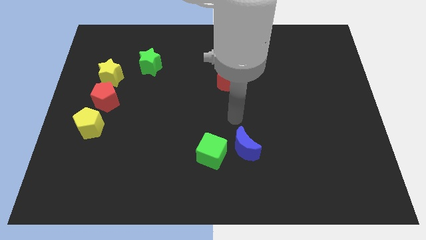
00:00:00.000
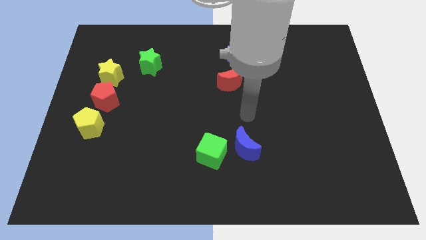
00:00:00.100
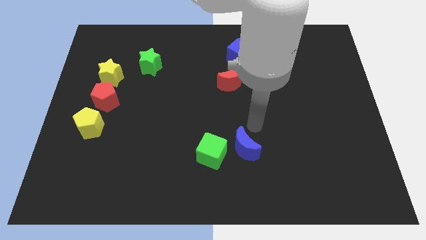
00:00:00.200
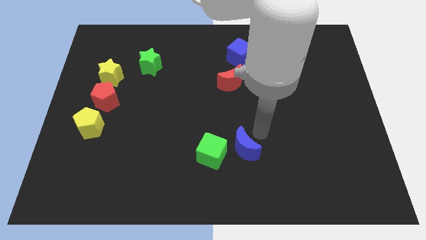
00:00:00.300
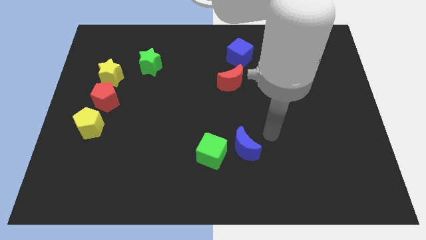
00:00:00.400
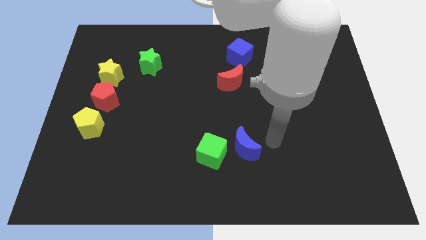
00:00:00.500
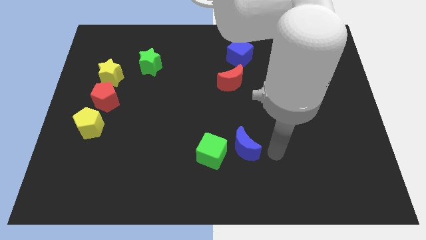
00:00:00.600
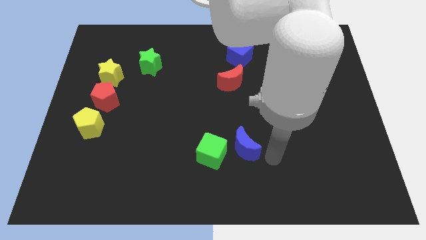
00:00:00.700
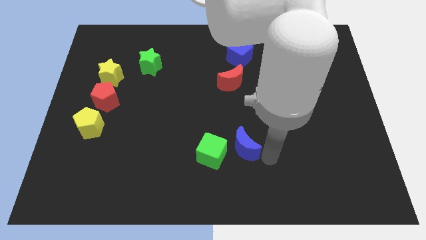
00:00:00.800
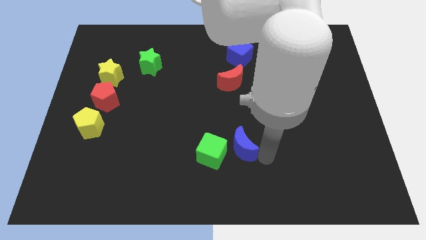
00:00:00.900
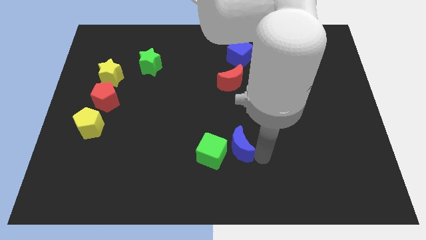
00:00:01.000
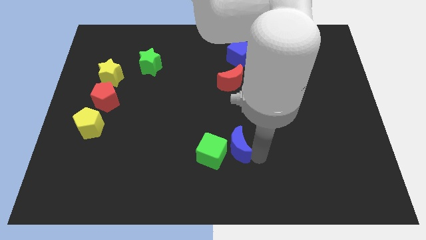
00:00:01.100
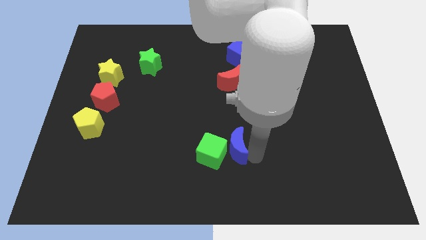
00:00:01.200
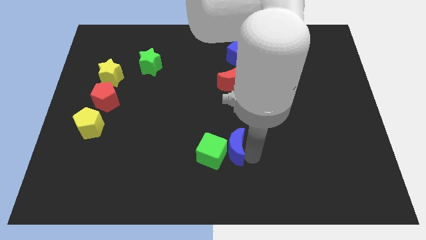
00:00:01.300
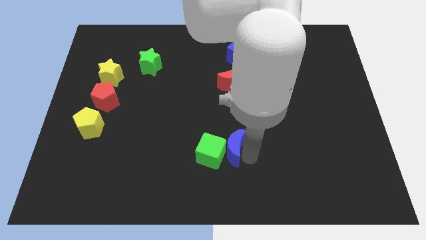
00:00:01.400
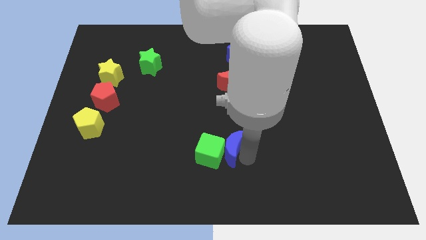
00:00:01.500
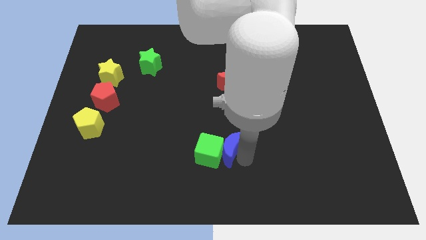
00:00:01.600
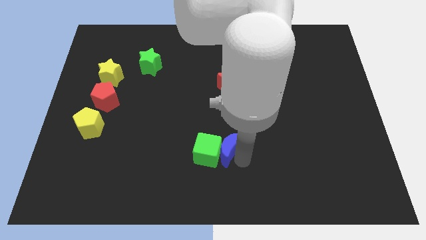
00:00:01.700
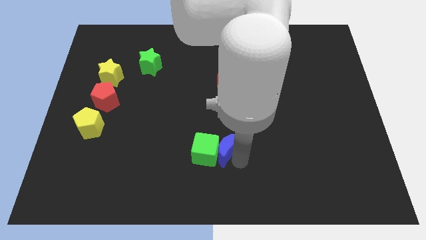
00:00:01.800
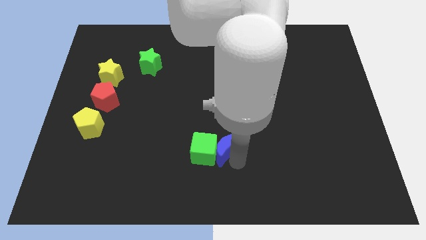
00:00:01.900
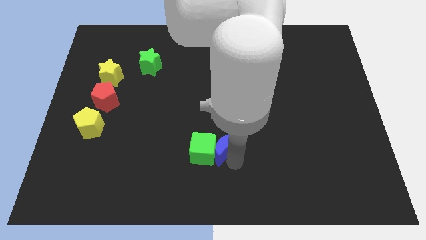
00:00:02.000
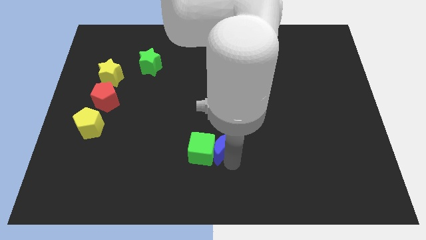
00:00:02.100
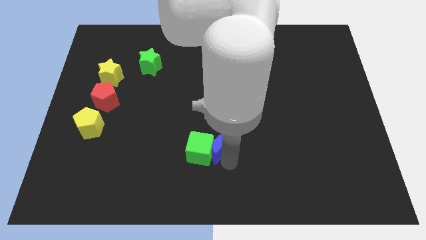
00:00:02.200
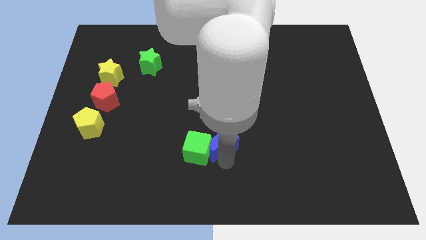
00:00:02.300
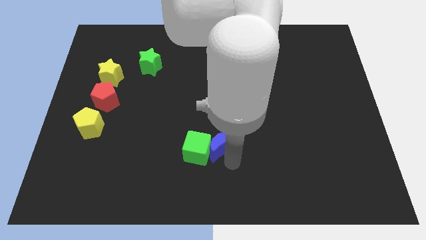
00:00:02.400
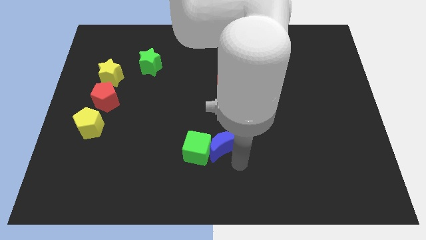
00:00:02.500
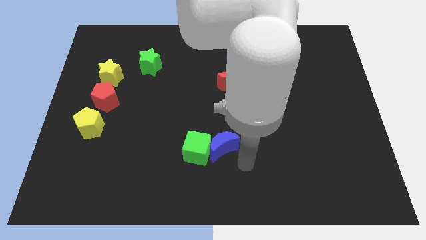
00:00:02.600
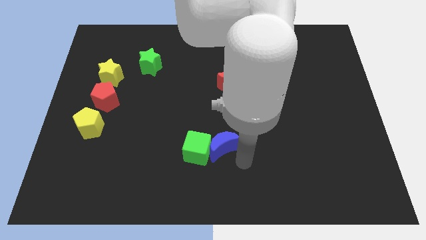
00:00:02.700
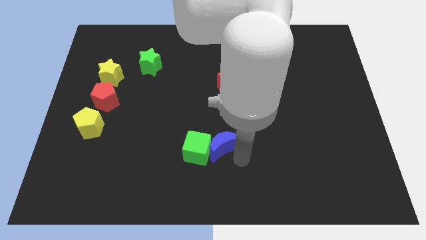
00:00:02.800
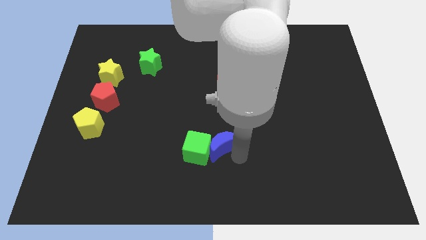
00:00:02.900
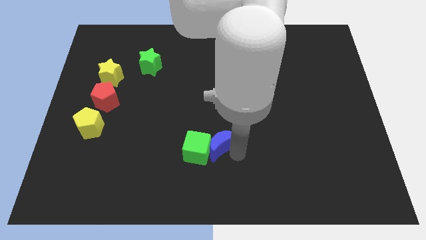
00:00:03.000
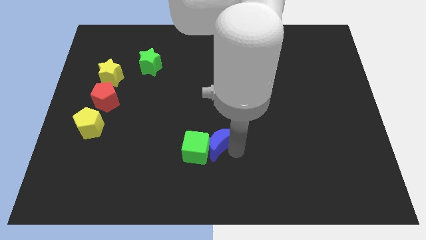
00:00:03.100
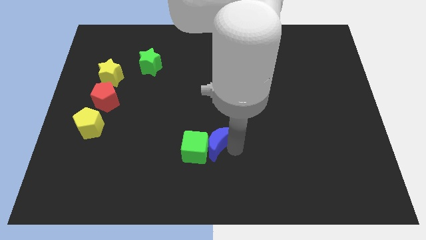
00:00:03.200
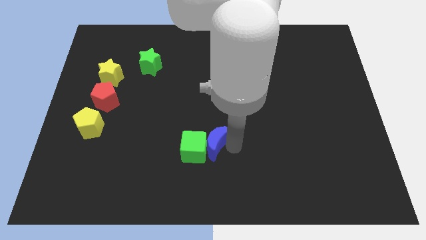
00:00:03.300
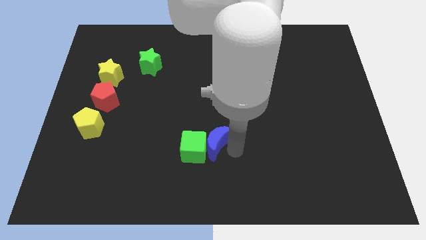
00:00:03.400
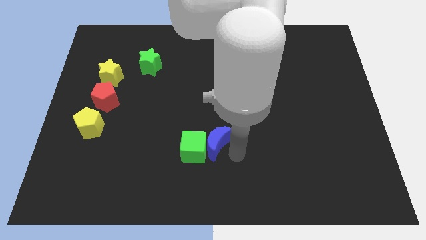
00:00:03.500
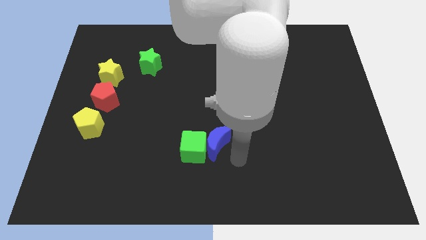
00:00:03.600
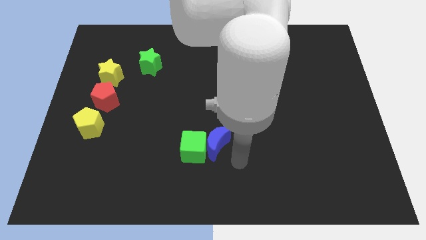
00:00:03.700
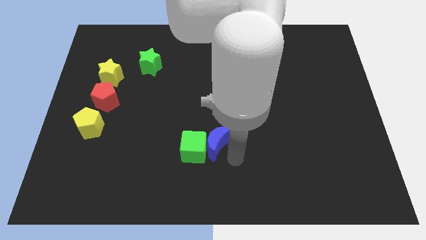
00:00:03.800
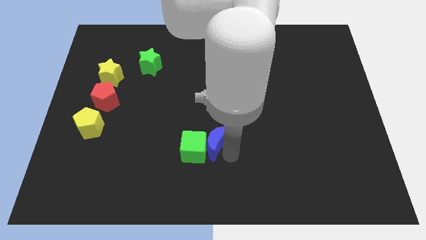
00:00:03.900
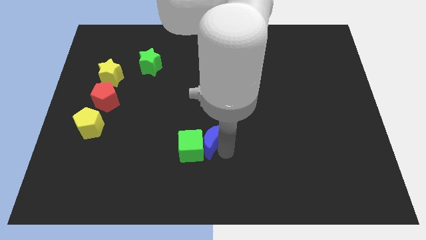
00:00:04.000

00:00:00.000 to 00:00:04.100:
slightly slide the blue moon left

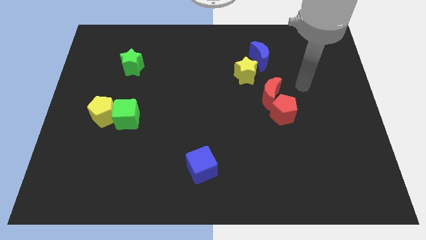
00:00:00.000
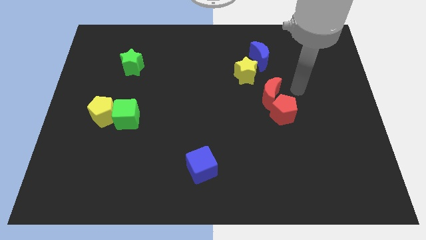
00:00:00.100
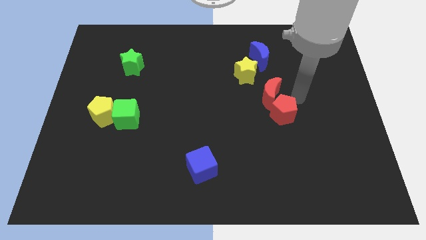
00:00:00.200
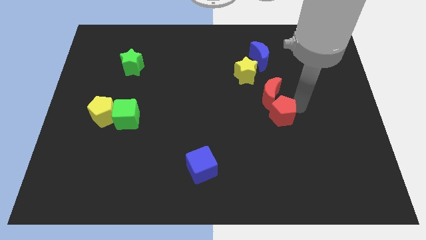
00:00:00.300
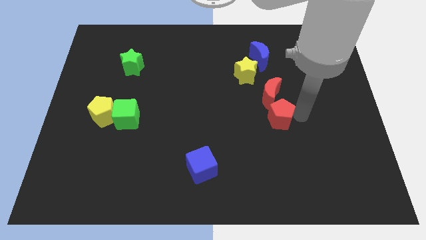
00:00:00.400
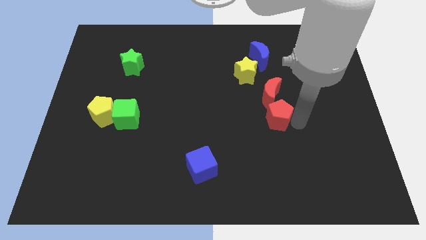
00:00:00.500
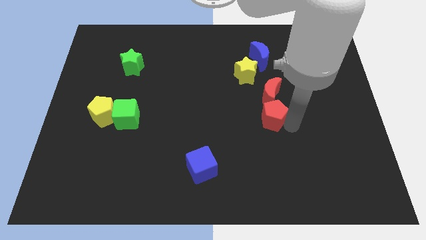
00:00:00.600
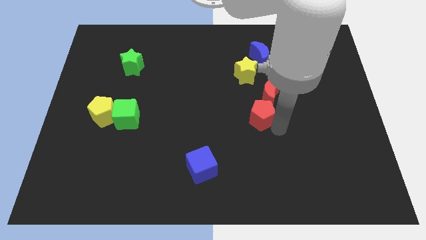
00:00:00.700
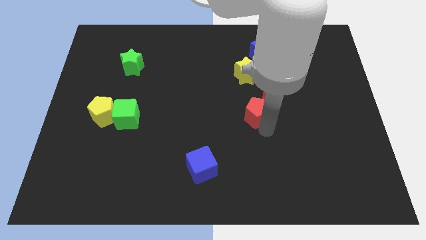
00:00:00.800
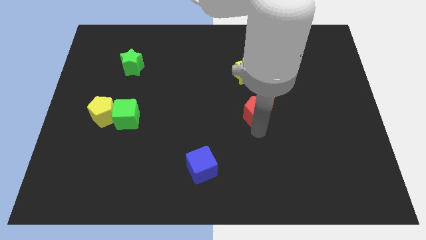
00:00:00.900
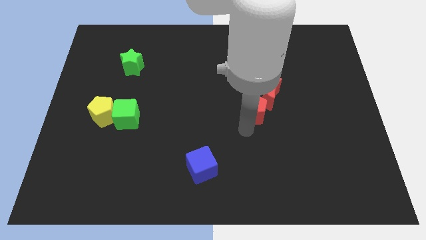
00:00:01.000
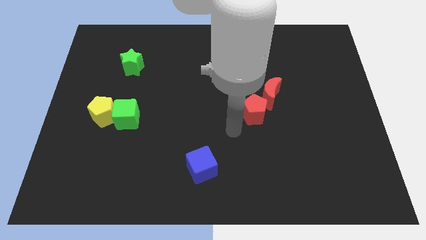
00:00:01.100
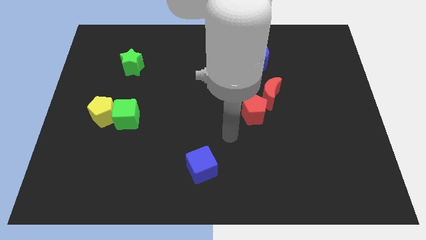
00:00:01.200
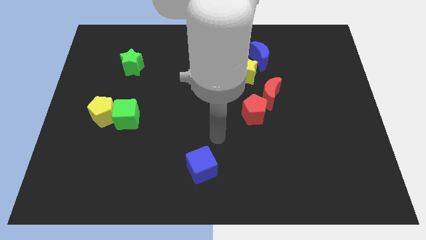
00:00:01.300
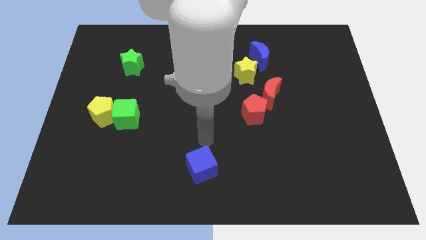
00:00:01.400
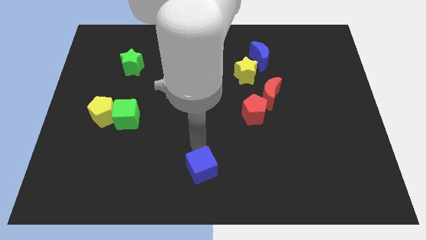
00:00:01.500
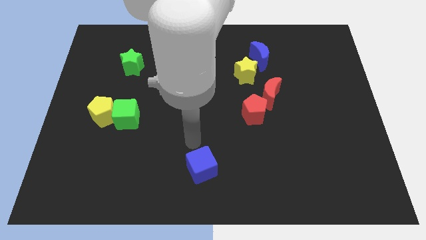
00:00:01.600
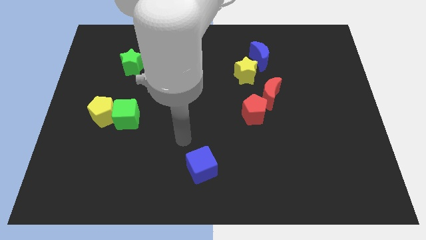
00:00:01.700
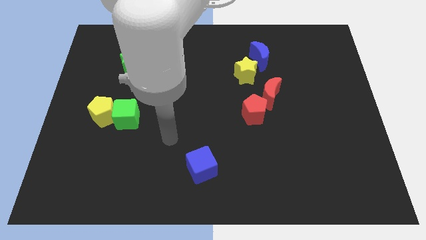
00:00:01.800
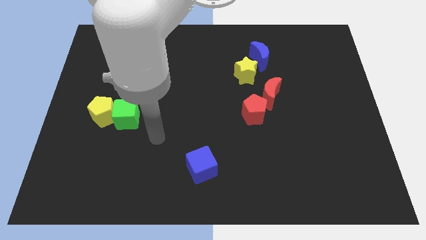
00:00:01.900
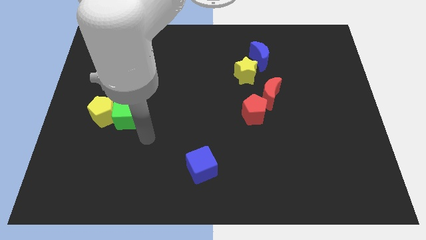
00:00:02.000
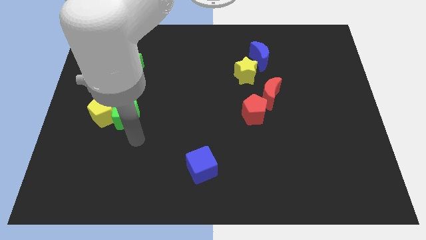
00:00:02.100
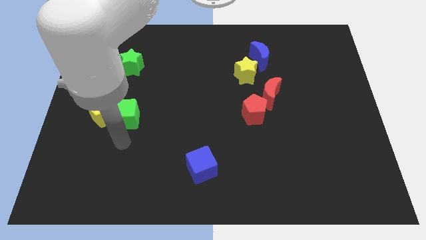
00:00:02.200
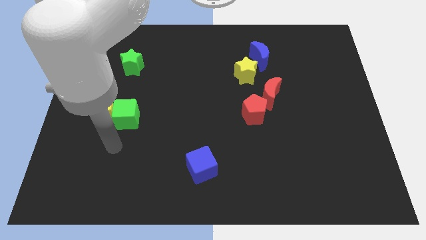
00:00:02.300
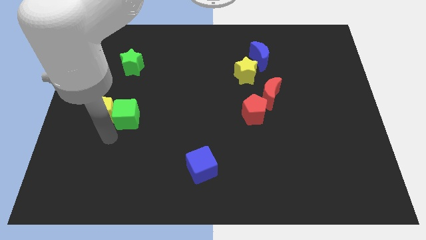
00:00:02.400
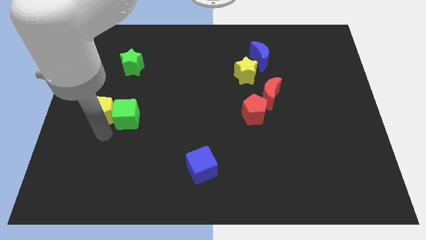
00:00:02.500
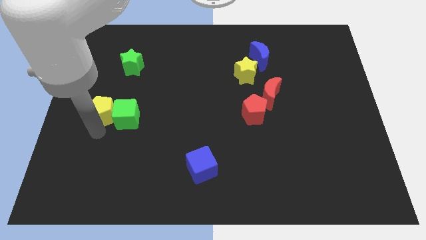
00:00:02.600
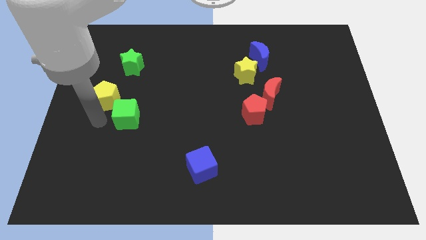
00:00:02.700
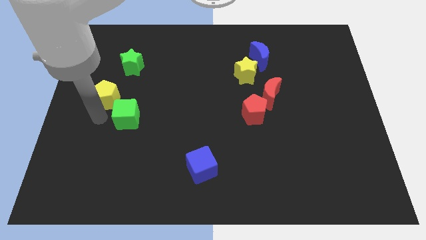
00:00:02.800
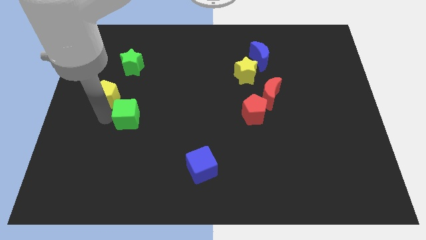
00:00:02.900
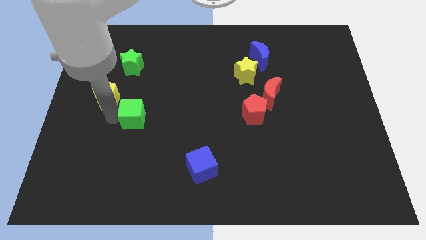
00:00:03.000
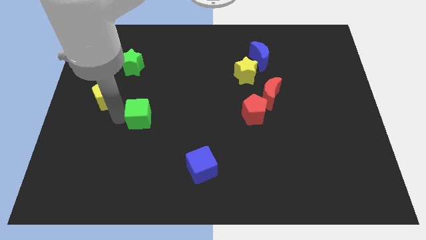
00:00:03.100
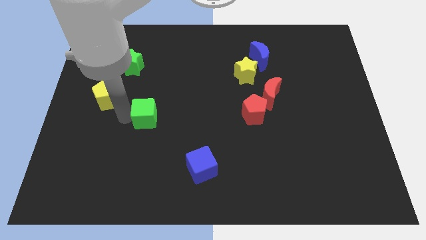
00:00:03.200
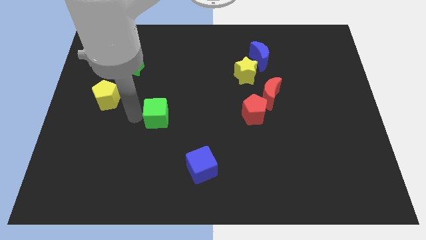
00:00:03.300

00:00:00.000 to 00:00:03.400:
slide the green cube a little right

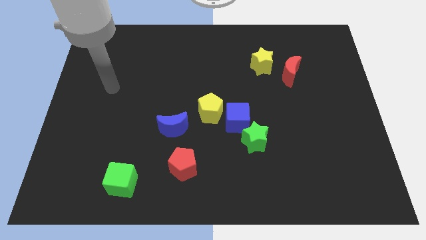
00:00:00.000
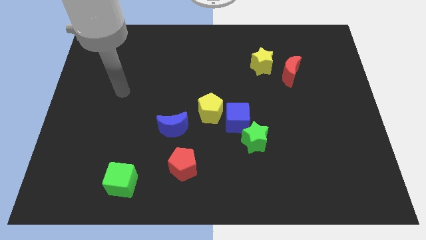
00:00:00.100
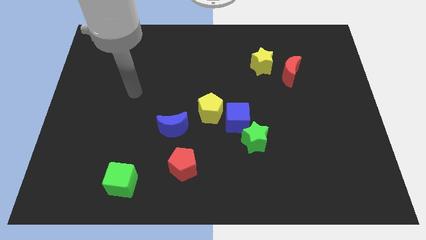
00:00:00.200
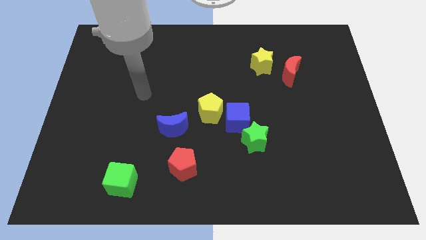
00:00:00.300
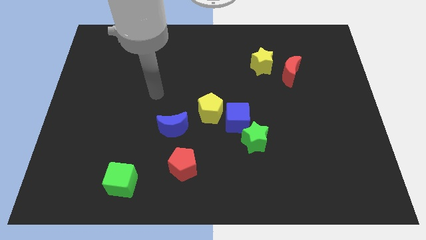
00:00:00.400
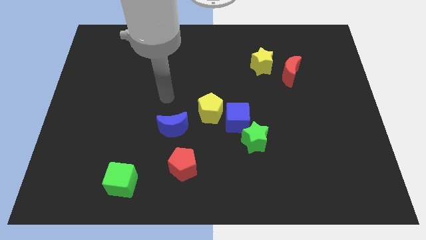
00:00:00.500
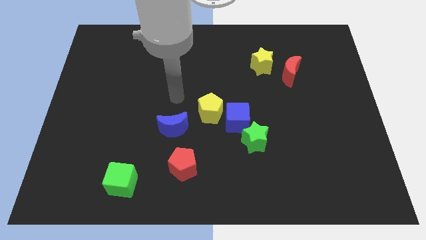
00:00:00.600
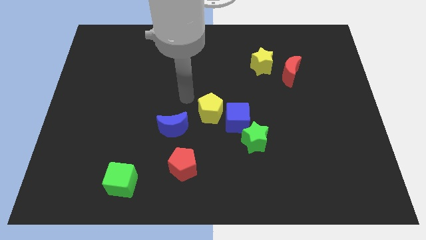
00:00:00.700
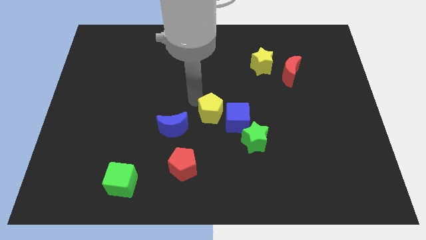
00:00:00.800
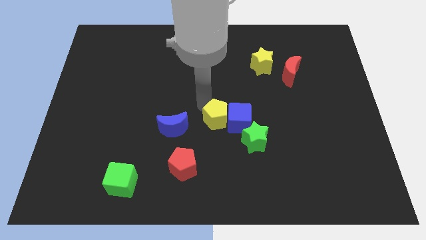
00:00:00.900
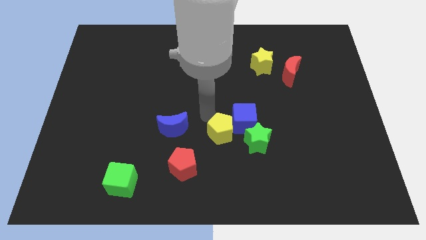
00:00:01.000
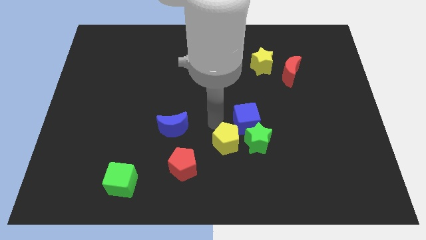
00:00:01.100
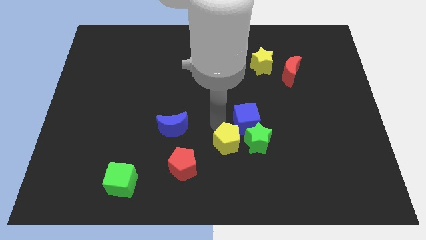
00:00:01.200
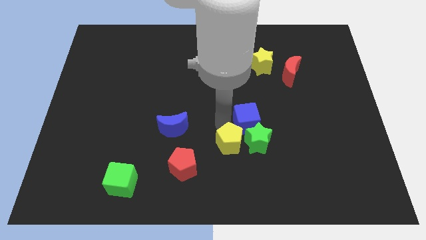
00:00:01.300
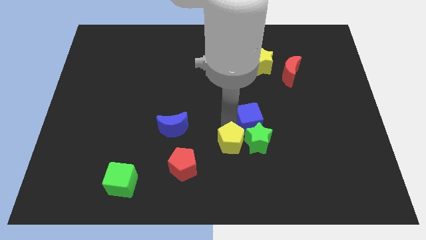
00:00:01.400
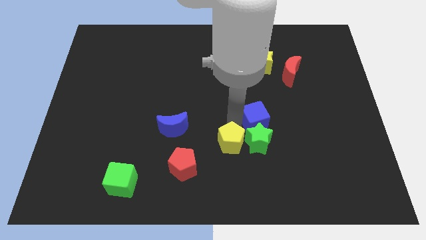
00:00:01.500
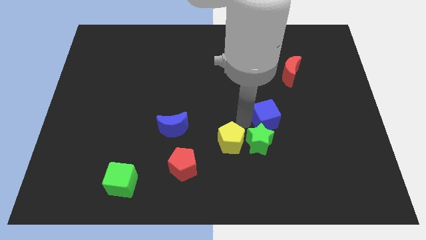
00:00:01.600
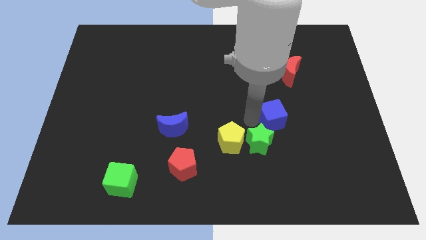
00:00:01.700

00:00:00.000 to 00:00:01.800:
slide the blue cube right somewhat
